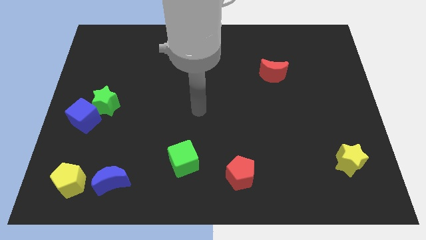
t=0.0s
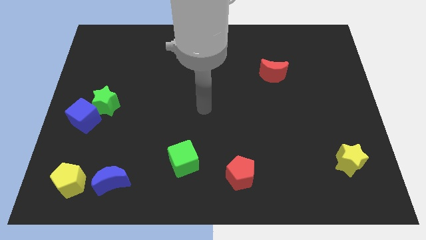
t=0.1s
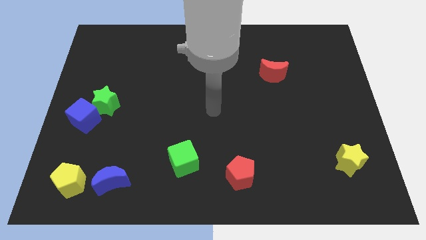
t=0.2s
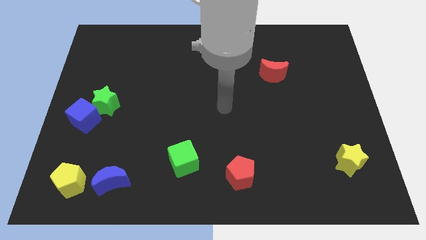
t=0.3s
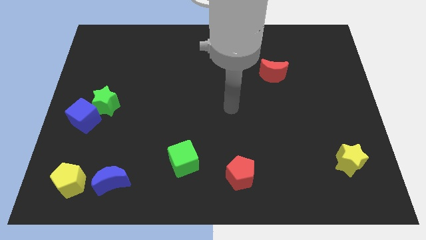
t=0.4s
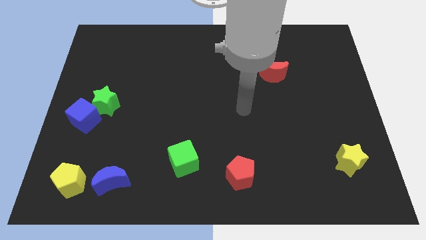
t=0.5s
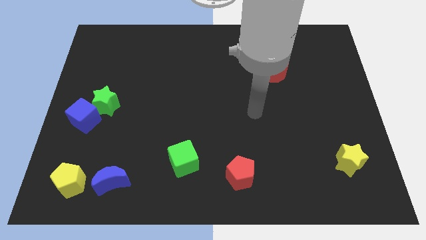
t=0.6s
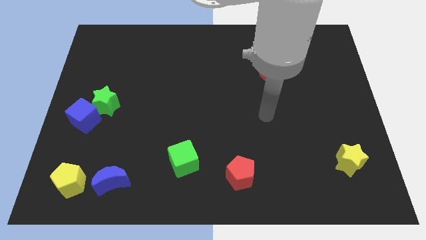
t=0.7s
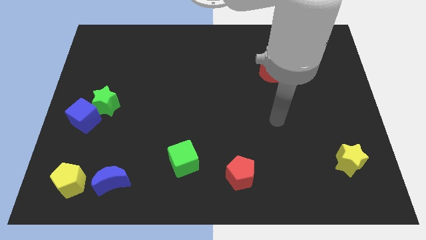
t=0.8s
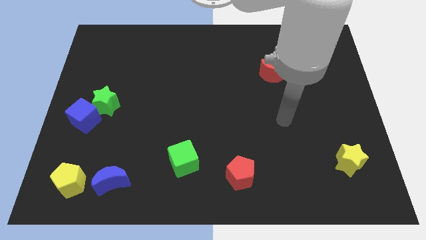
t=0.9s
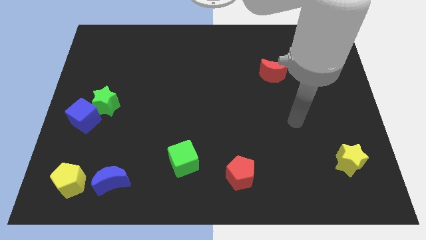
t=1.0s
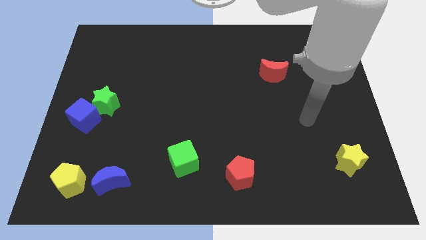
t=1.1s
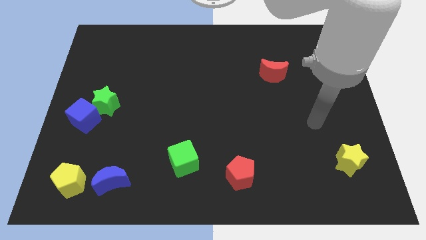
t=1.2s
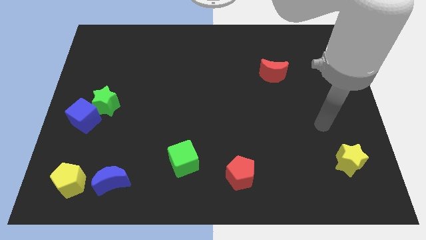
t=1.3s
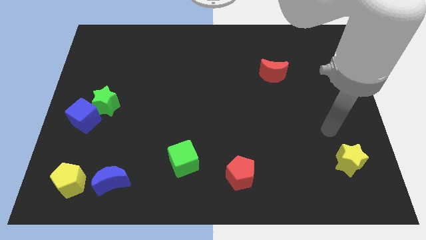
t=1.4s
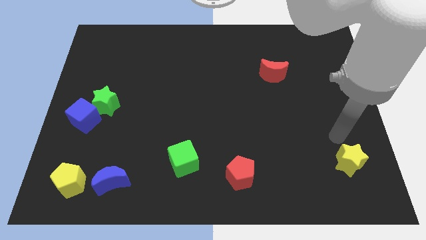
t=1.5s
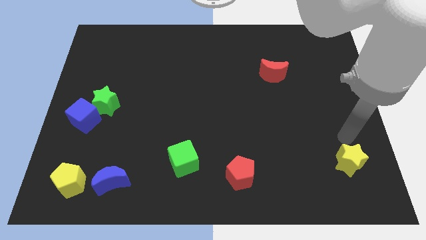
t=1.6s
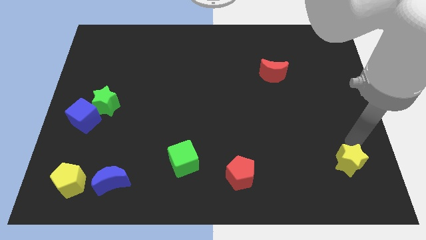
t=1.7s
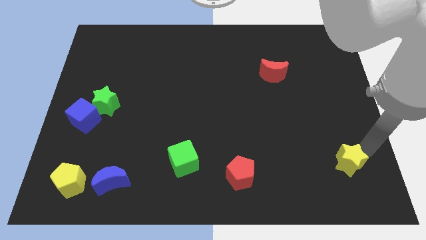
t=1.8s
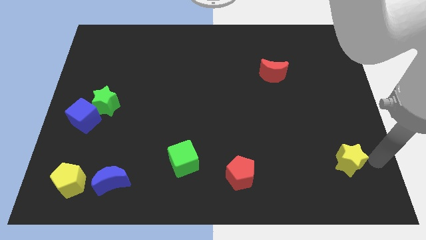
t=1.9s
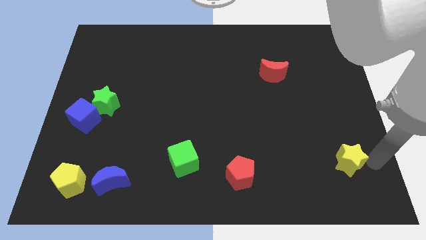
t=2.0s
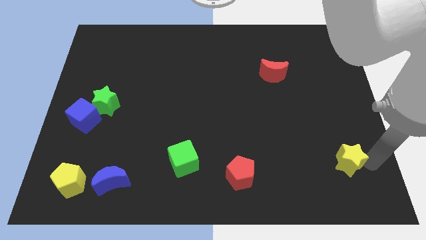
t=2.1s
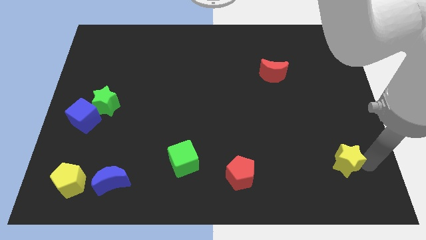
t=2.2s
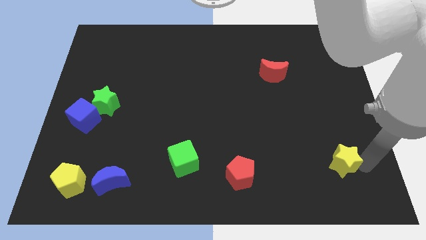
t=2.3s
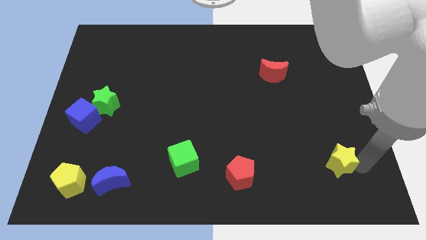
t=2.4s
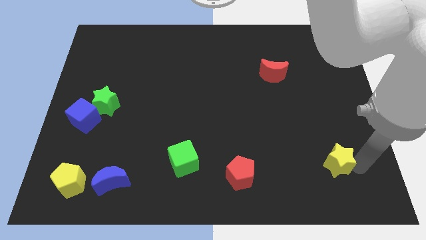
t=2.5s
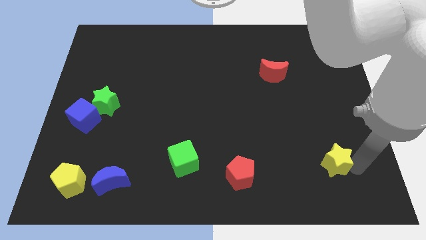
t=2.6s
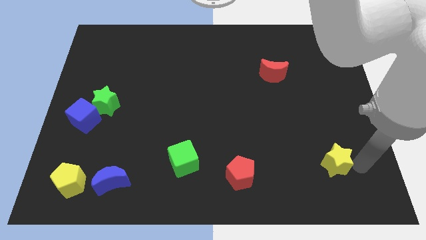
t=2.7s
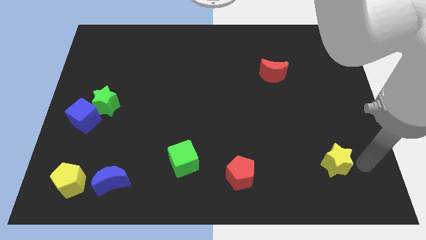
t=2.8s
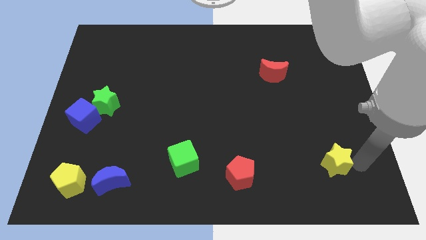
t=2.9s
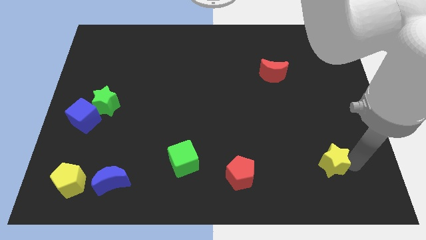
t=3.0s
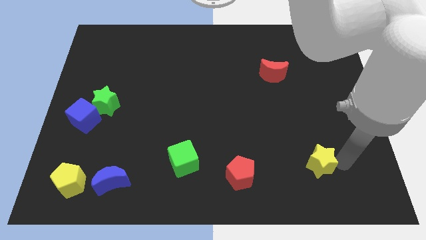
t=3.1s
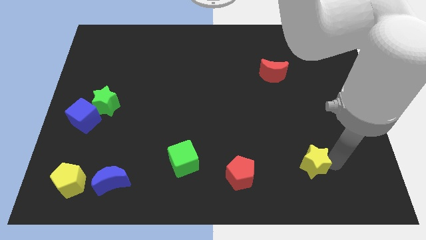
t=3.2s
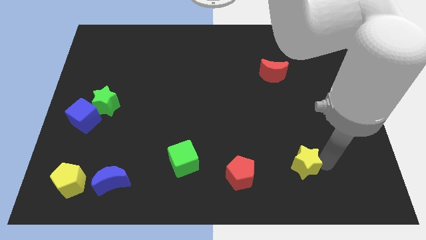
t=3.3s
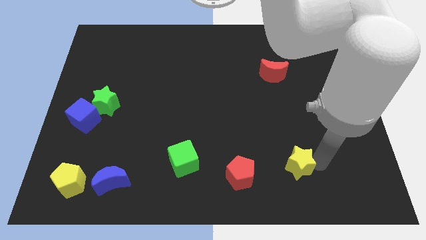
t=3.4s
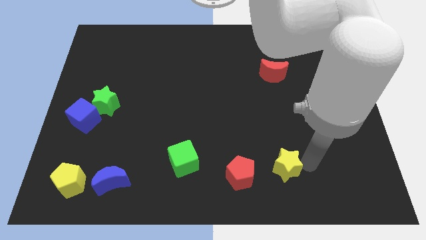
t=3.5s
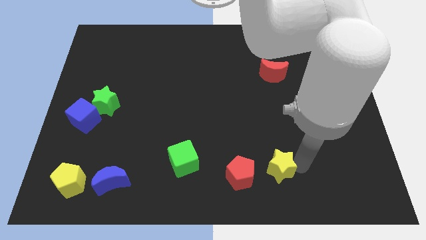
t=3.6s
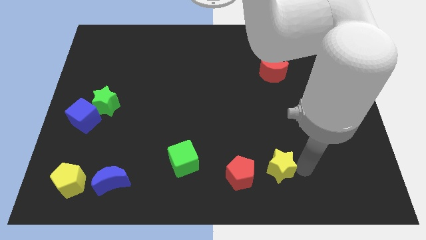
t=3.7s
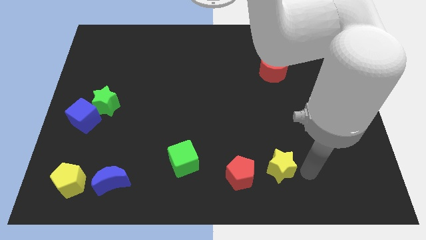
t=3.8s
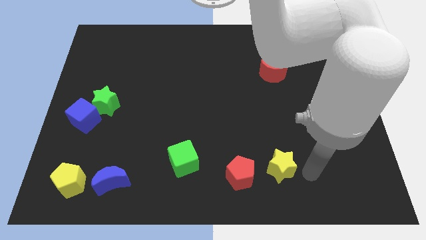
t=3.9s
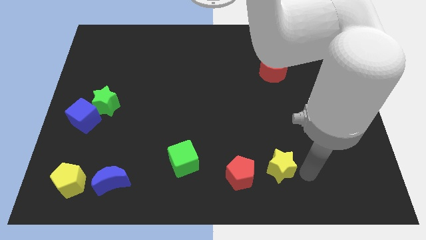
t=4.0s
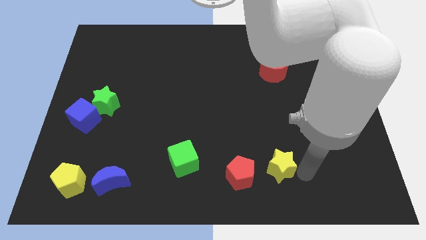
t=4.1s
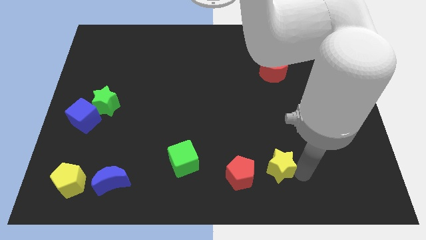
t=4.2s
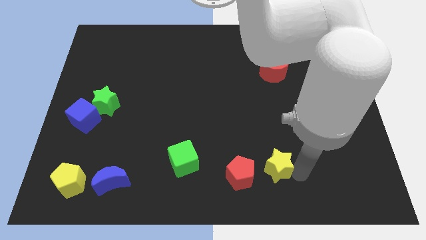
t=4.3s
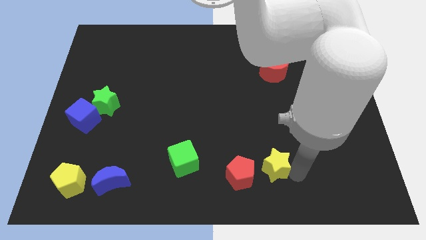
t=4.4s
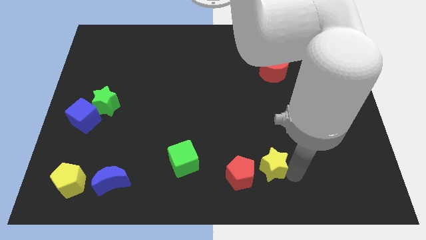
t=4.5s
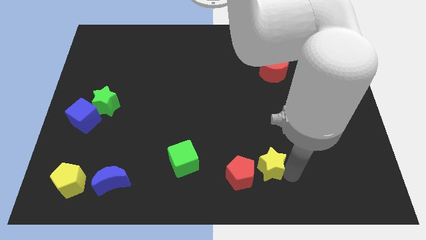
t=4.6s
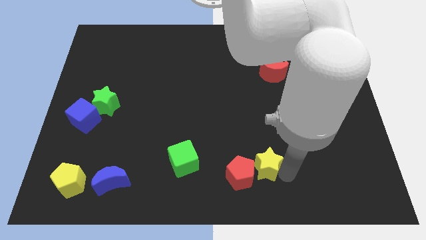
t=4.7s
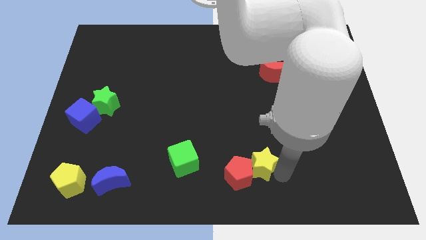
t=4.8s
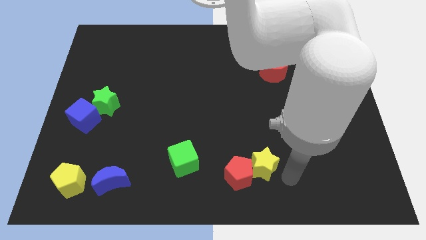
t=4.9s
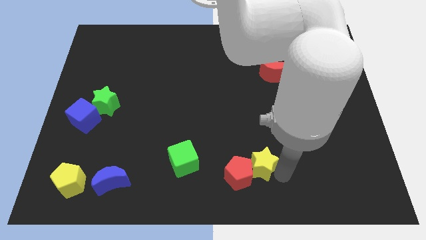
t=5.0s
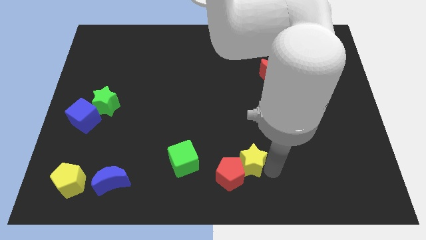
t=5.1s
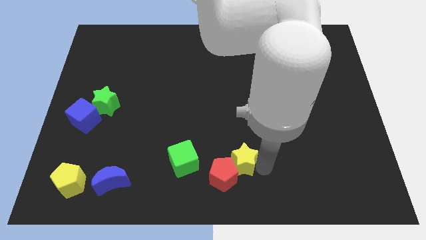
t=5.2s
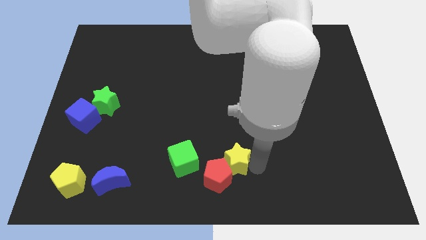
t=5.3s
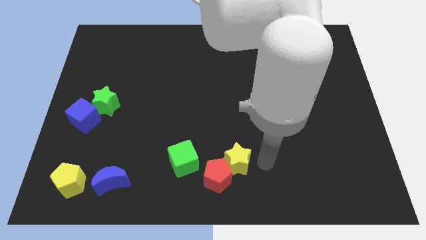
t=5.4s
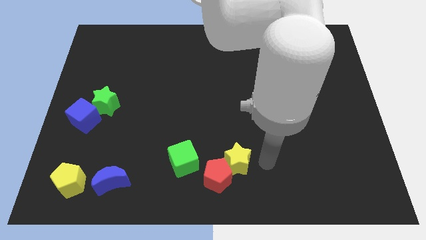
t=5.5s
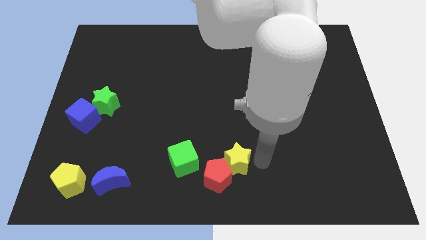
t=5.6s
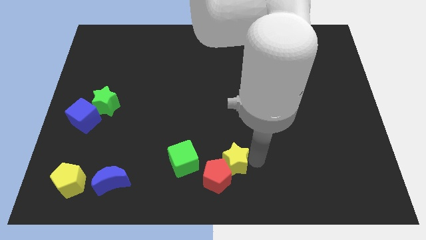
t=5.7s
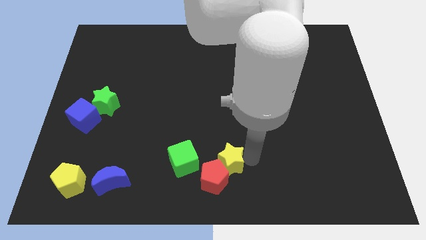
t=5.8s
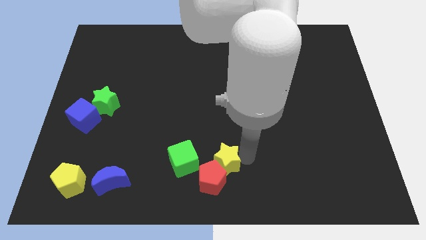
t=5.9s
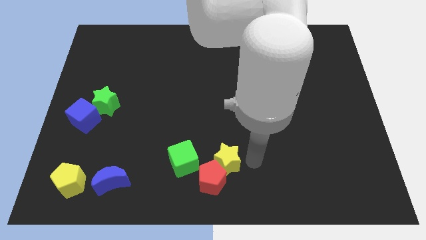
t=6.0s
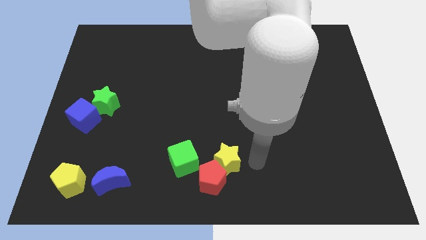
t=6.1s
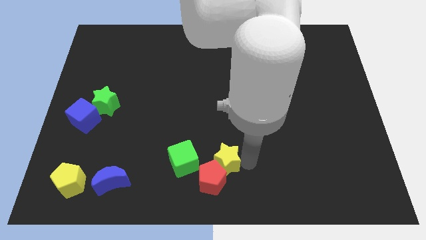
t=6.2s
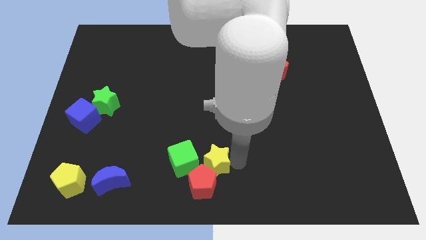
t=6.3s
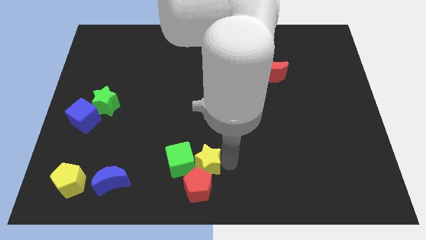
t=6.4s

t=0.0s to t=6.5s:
put the yellow star to the green cube

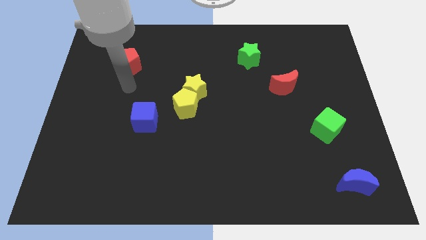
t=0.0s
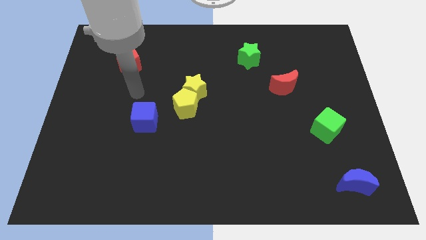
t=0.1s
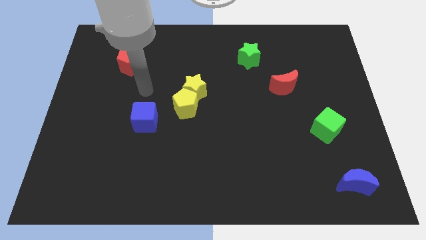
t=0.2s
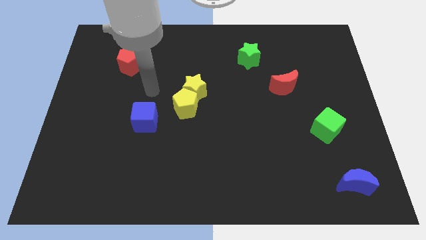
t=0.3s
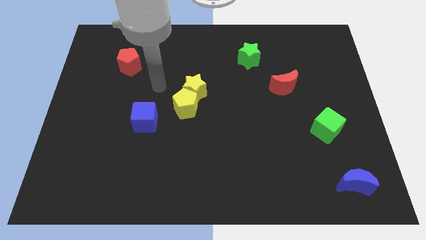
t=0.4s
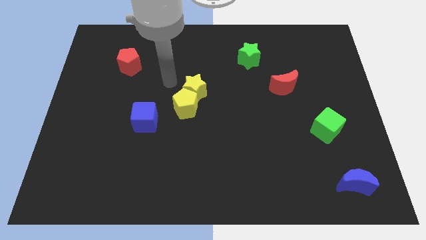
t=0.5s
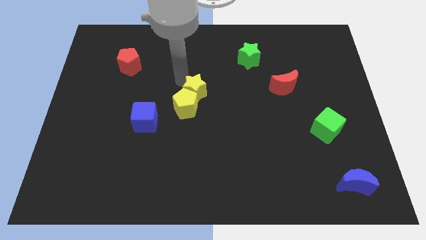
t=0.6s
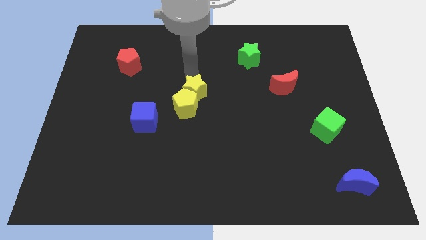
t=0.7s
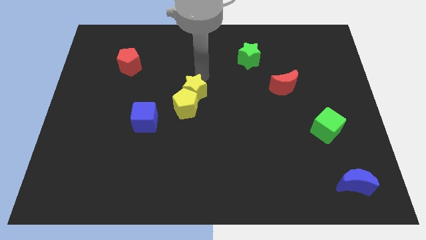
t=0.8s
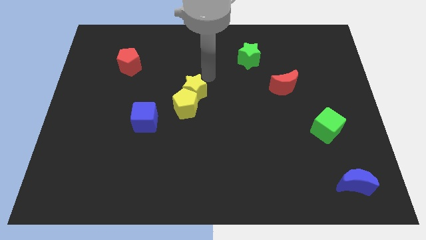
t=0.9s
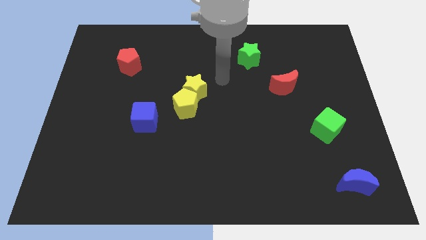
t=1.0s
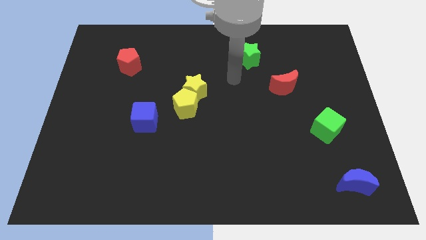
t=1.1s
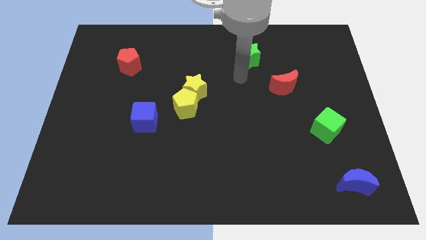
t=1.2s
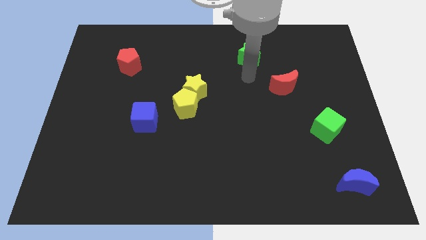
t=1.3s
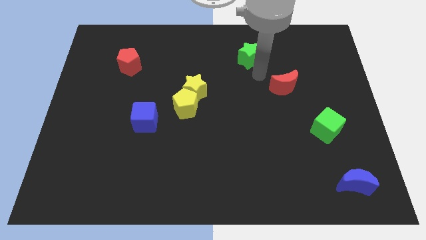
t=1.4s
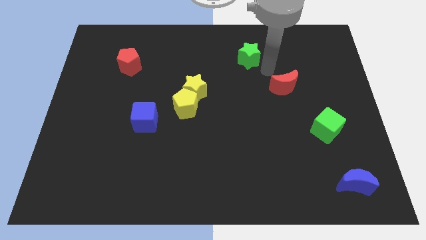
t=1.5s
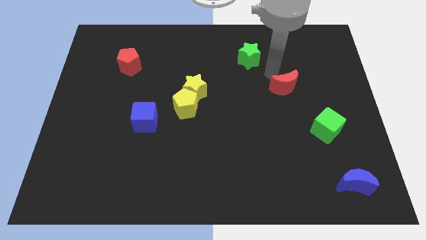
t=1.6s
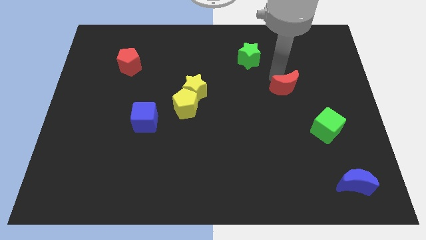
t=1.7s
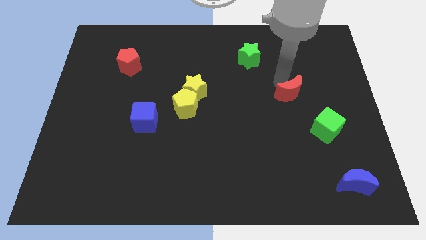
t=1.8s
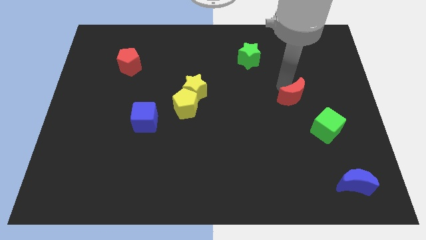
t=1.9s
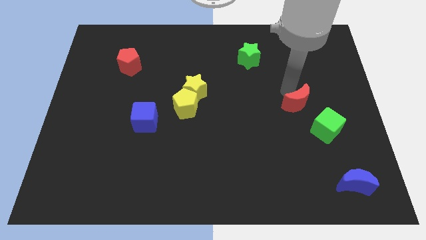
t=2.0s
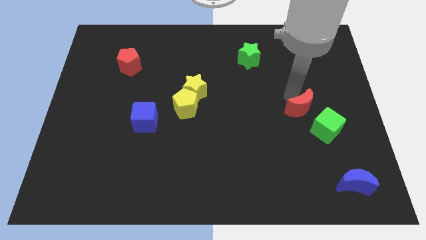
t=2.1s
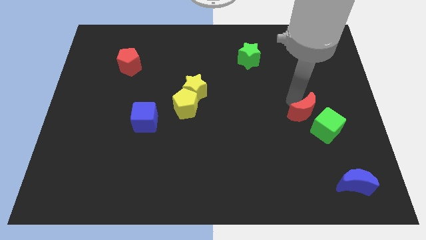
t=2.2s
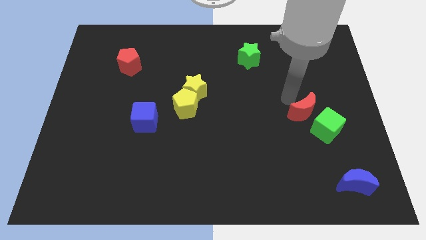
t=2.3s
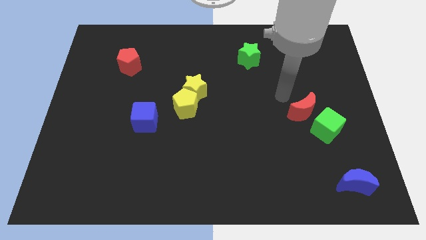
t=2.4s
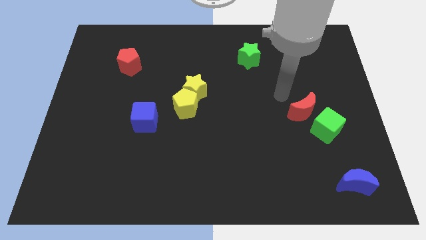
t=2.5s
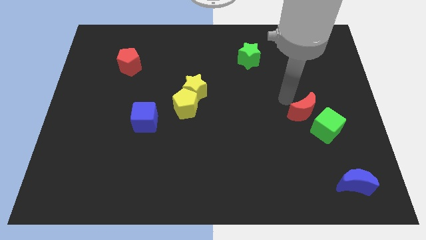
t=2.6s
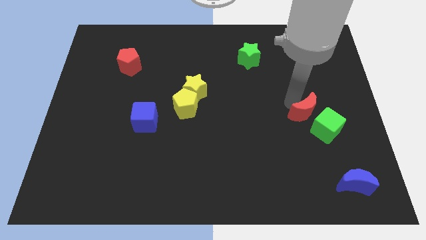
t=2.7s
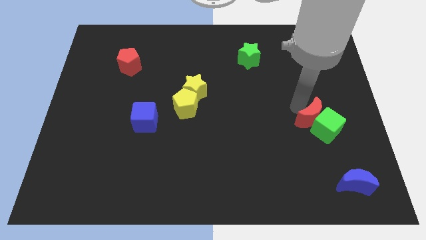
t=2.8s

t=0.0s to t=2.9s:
push the red moon towards the green cube
